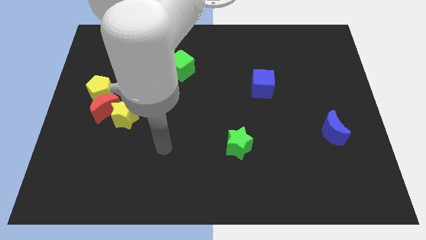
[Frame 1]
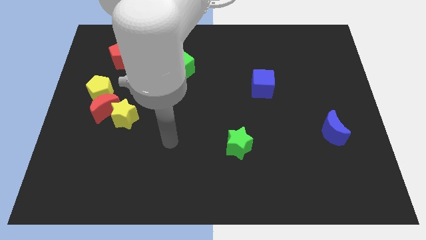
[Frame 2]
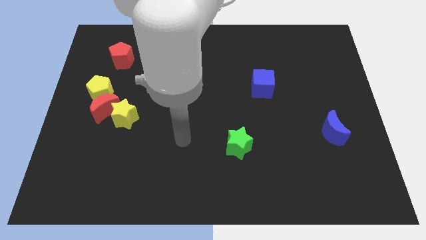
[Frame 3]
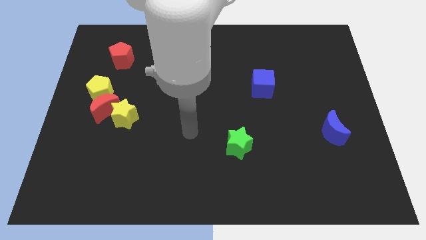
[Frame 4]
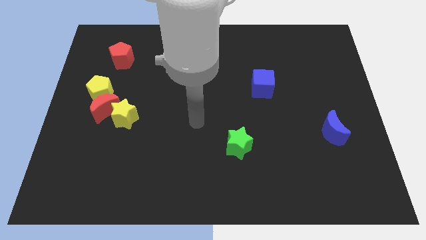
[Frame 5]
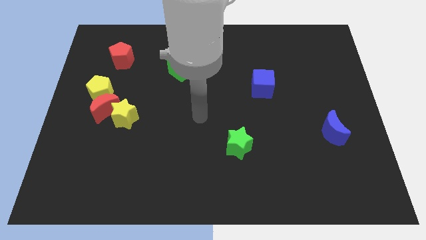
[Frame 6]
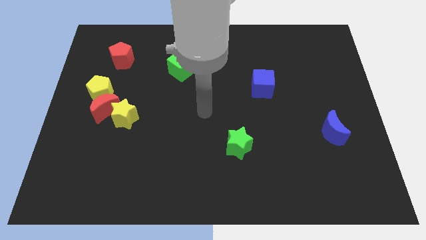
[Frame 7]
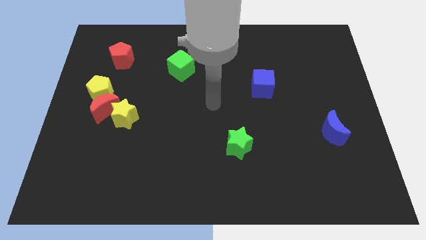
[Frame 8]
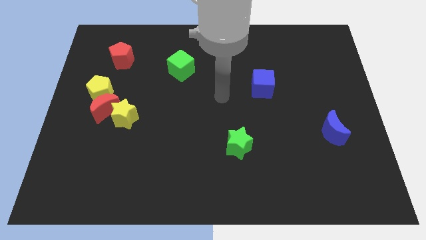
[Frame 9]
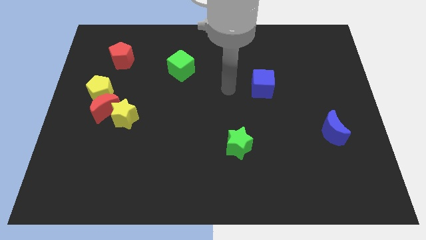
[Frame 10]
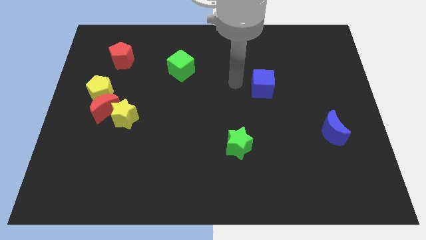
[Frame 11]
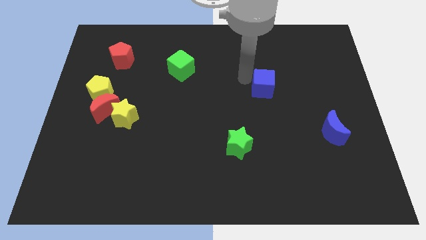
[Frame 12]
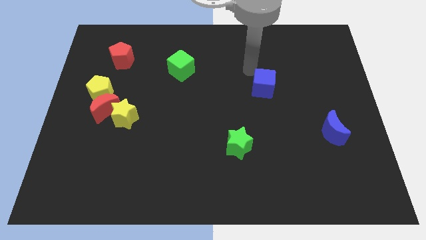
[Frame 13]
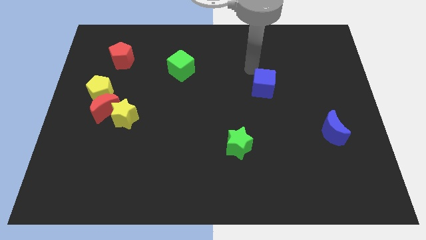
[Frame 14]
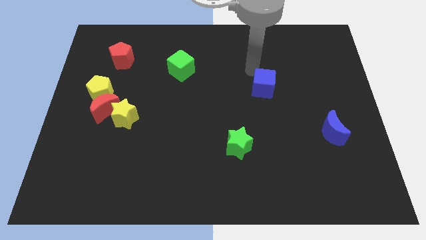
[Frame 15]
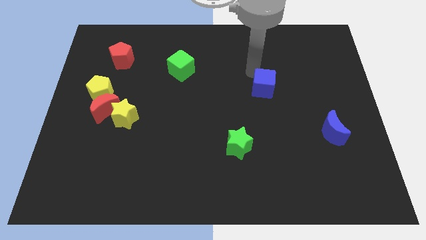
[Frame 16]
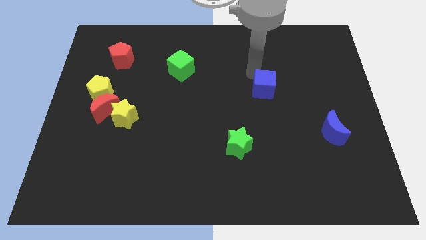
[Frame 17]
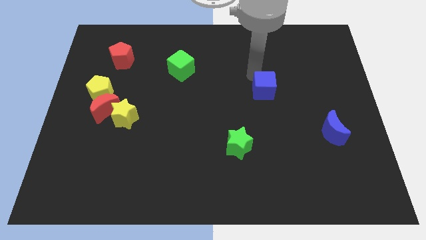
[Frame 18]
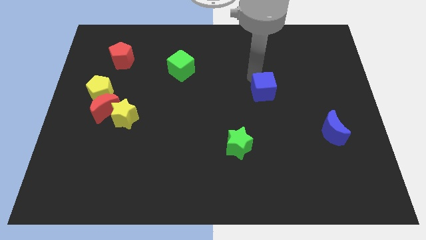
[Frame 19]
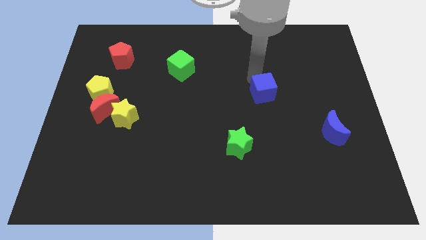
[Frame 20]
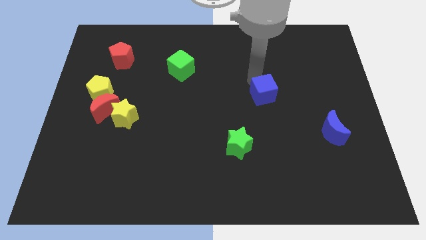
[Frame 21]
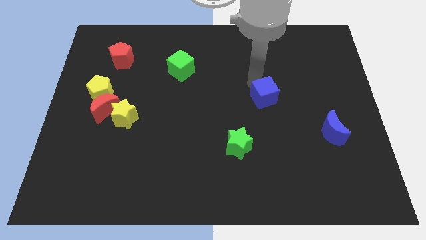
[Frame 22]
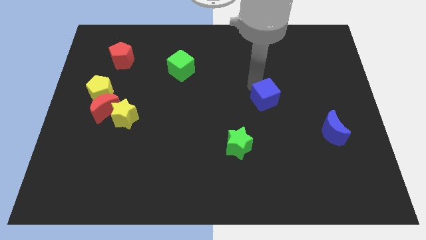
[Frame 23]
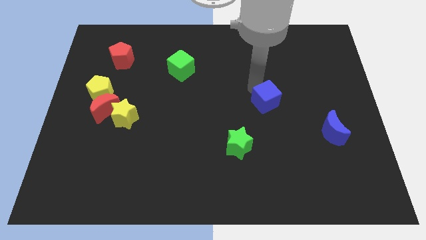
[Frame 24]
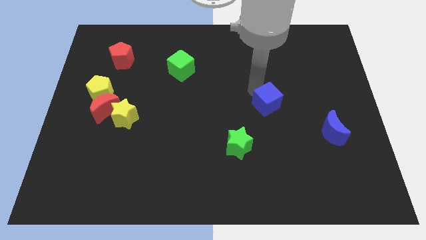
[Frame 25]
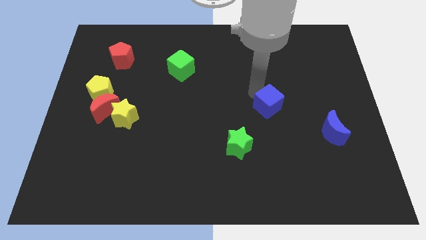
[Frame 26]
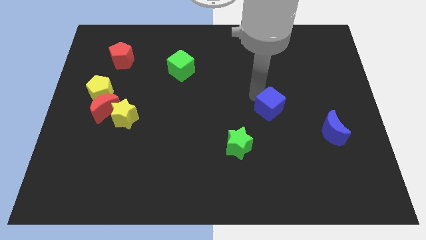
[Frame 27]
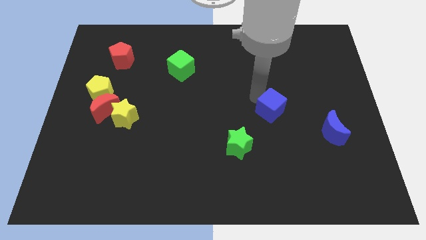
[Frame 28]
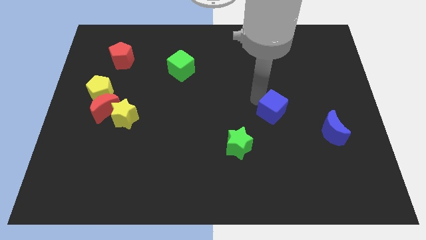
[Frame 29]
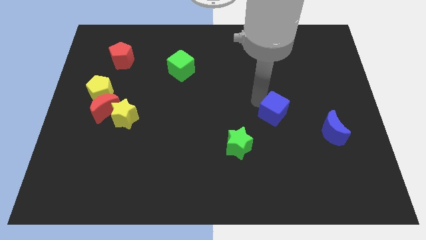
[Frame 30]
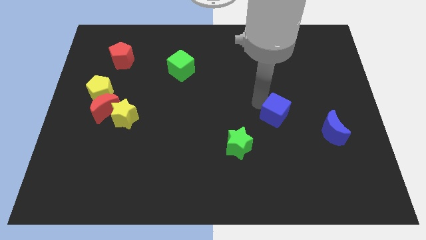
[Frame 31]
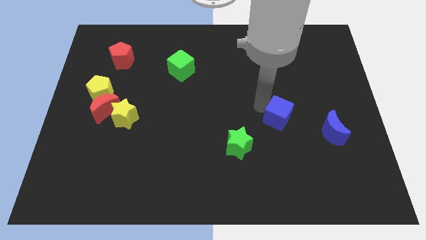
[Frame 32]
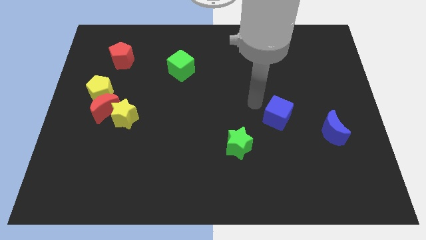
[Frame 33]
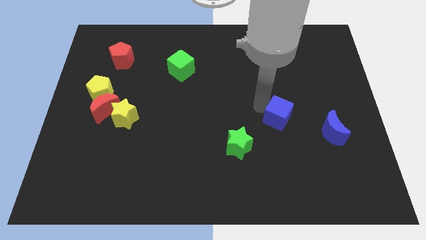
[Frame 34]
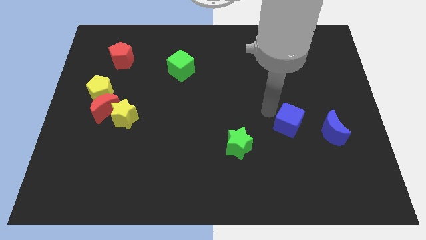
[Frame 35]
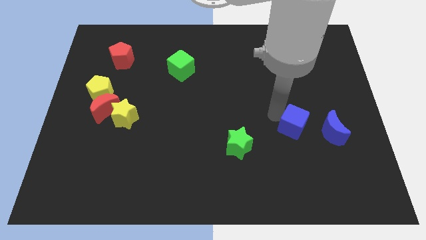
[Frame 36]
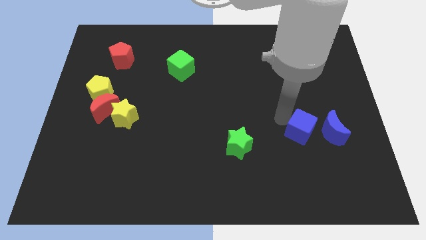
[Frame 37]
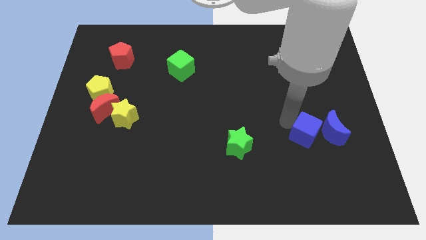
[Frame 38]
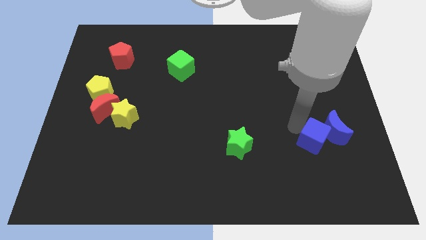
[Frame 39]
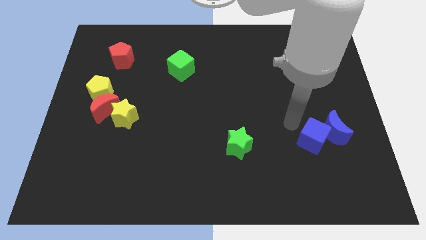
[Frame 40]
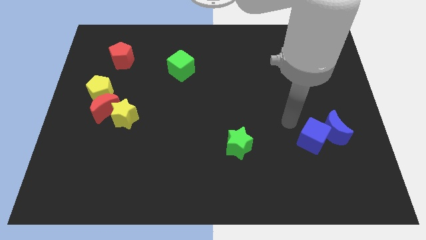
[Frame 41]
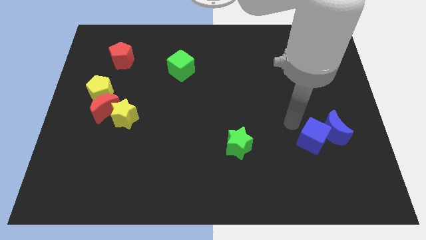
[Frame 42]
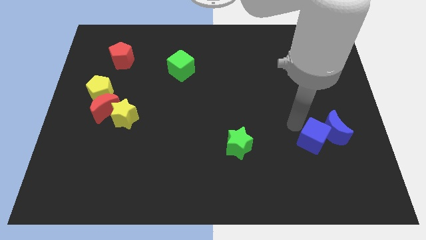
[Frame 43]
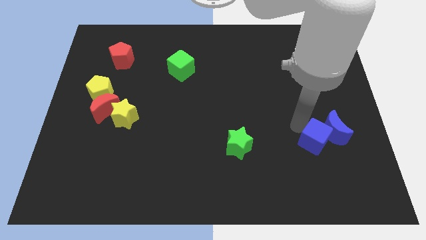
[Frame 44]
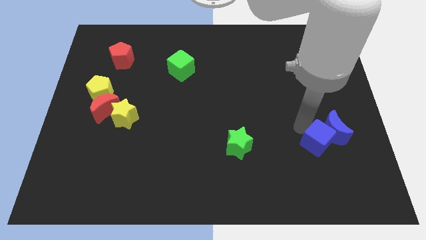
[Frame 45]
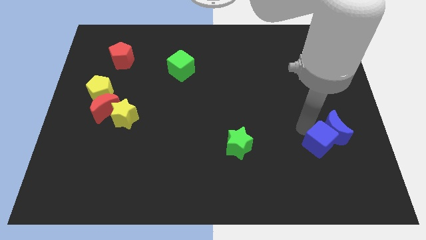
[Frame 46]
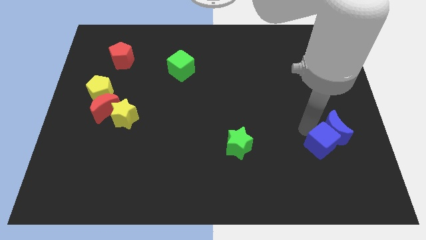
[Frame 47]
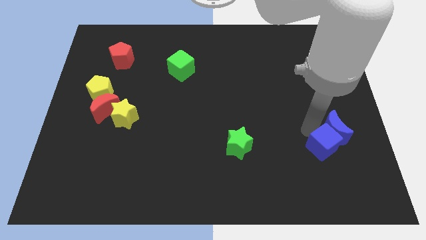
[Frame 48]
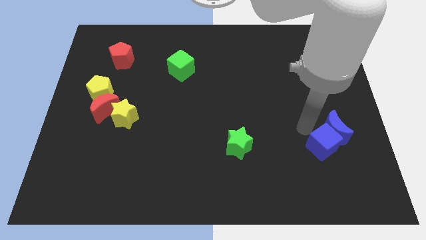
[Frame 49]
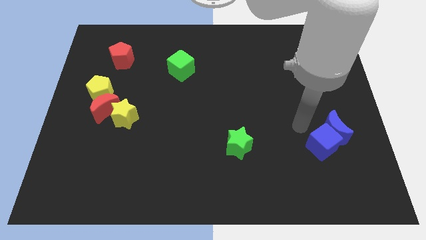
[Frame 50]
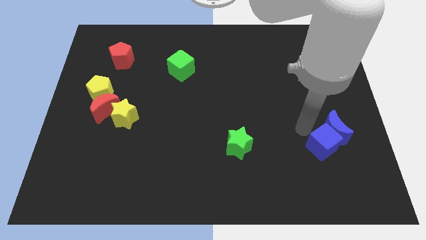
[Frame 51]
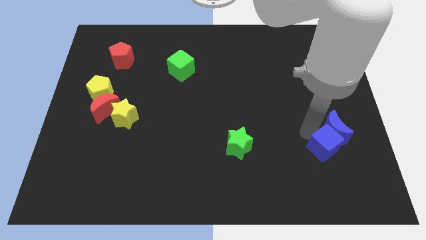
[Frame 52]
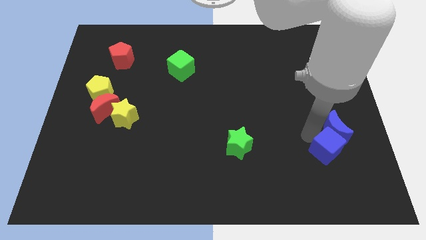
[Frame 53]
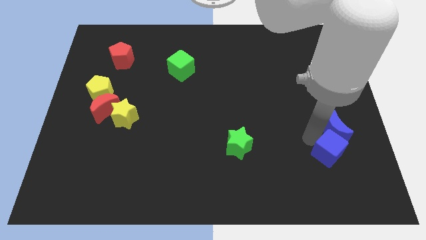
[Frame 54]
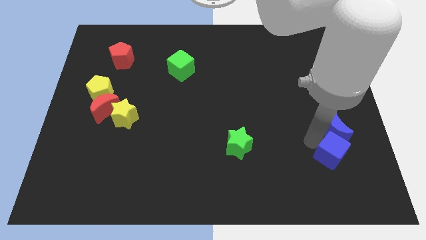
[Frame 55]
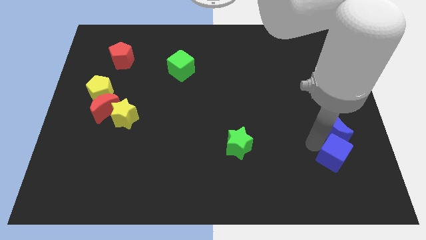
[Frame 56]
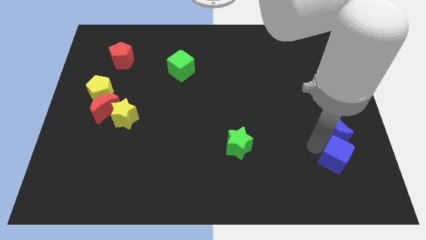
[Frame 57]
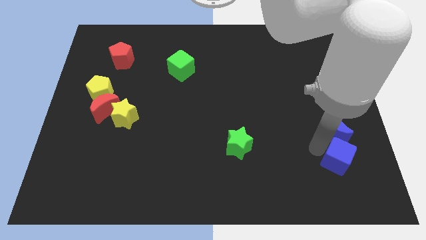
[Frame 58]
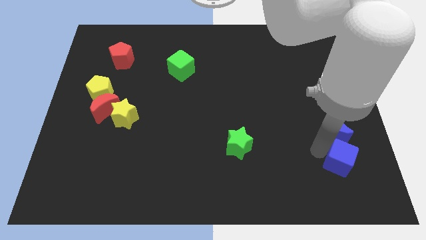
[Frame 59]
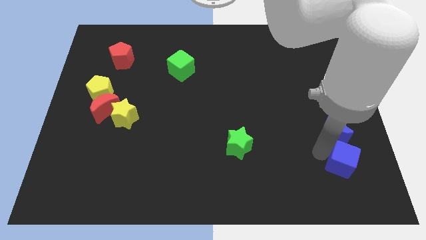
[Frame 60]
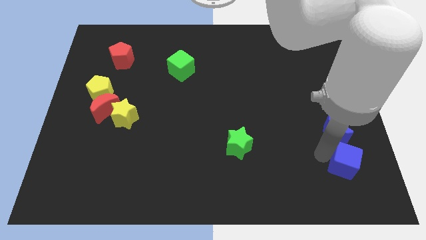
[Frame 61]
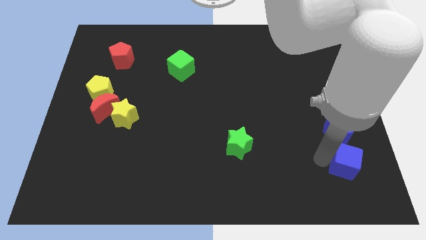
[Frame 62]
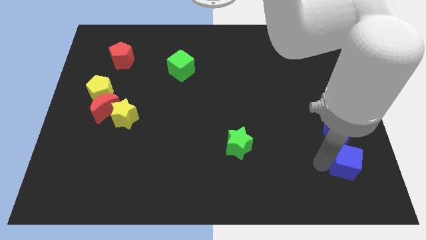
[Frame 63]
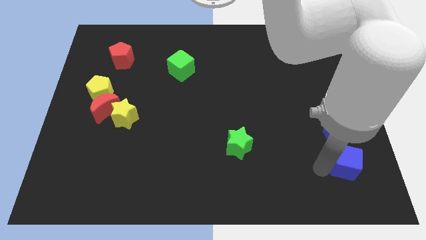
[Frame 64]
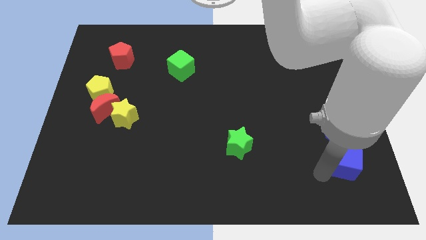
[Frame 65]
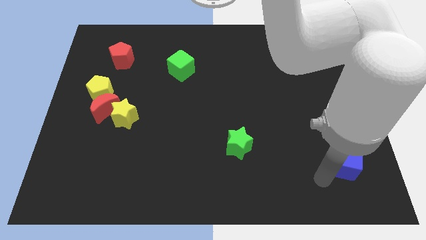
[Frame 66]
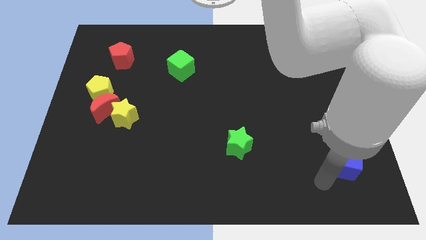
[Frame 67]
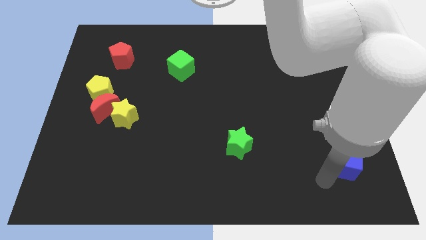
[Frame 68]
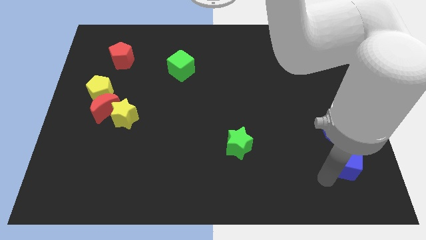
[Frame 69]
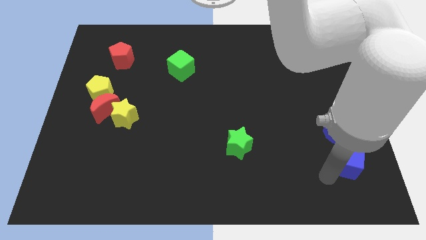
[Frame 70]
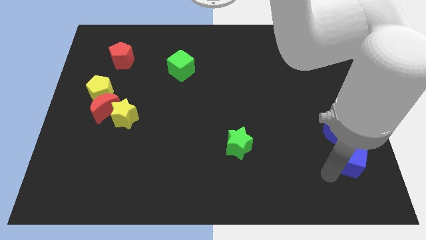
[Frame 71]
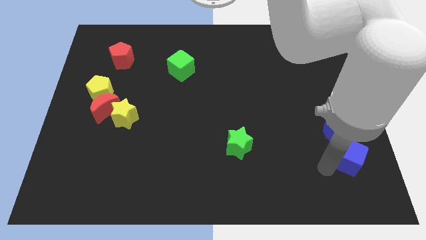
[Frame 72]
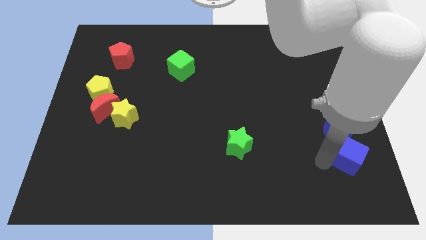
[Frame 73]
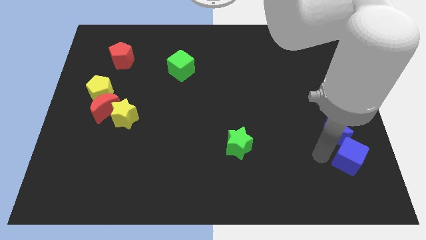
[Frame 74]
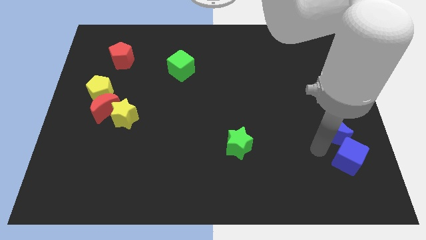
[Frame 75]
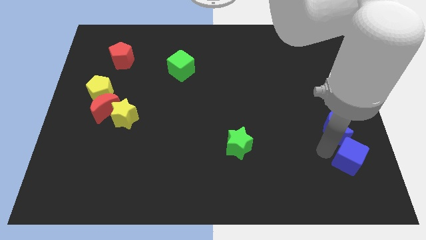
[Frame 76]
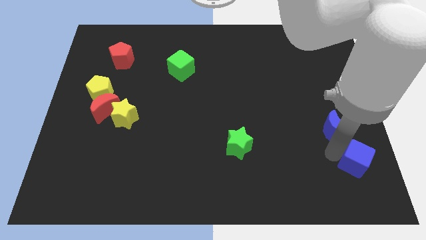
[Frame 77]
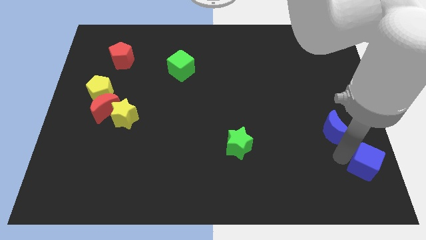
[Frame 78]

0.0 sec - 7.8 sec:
push the blue cube to the bottom right of the board
